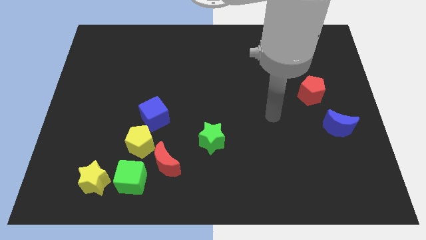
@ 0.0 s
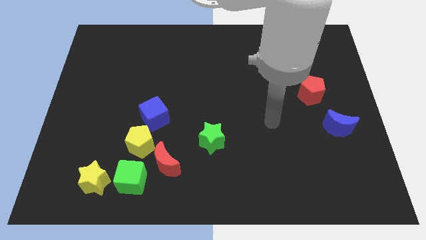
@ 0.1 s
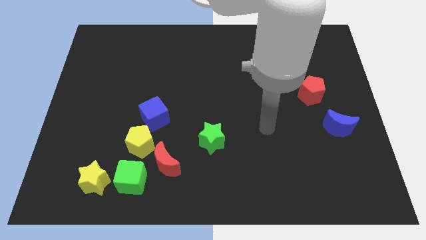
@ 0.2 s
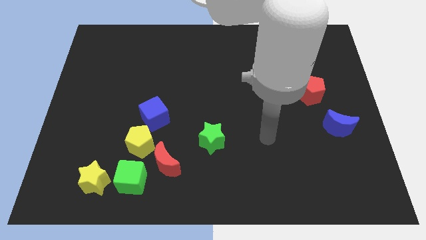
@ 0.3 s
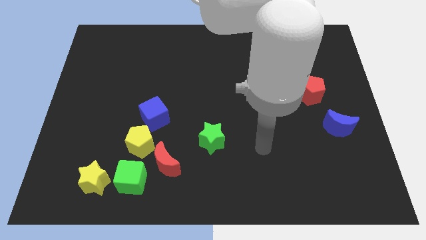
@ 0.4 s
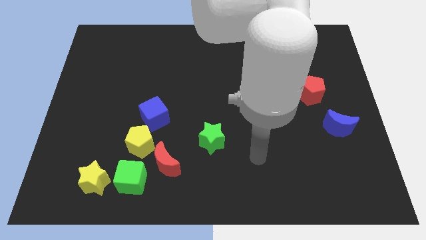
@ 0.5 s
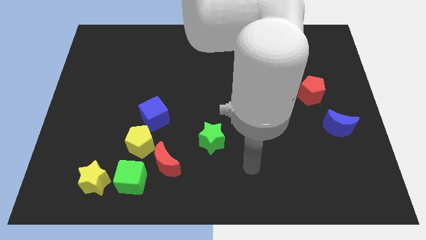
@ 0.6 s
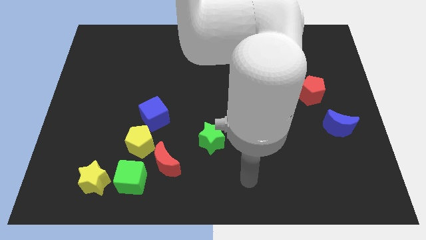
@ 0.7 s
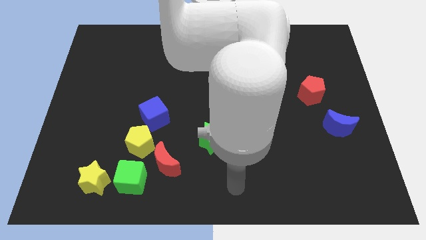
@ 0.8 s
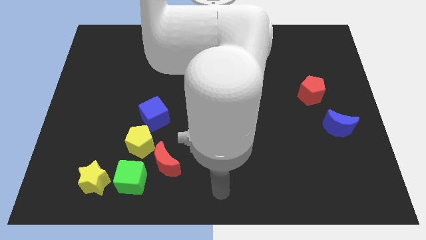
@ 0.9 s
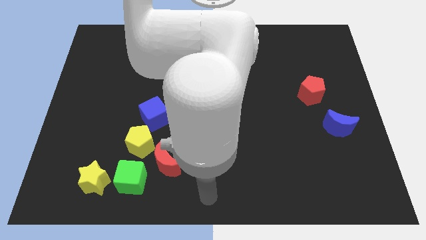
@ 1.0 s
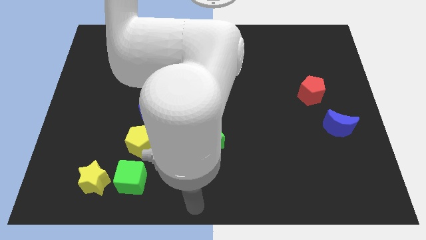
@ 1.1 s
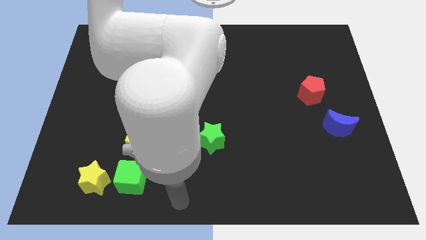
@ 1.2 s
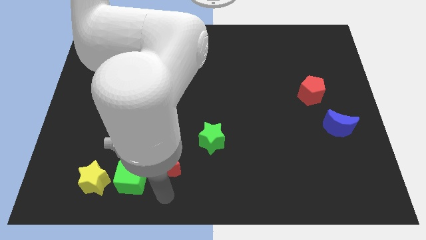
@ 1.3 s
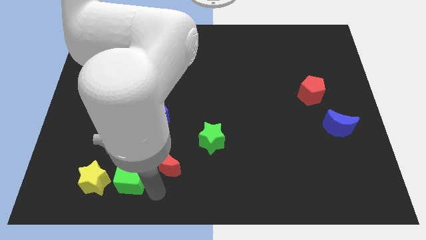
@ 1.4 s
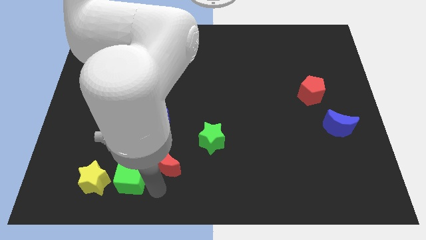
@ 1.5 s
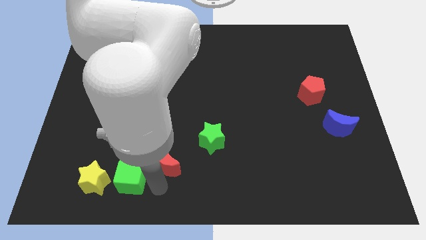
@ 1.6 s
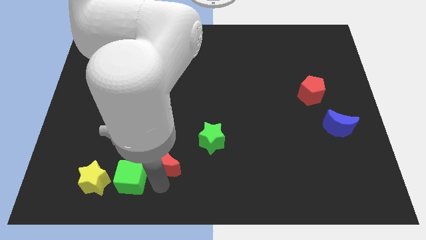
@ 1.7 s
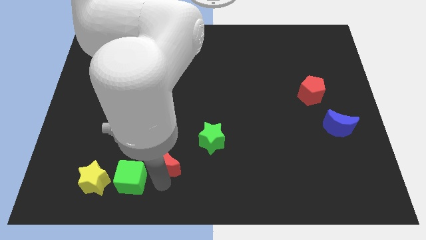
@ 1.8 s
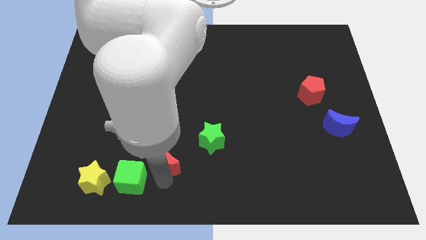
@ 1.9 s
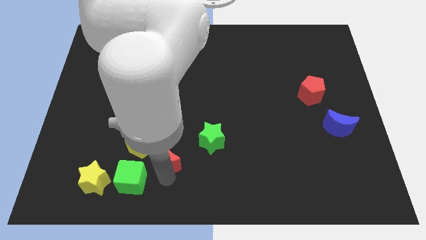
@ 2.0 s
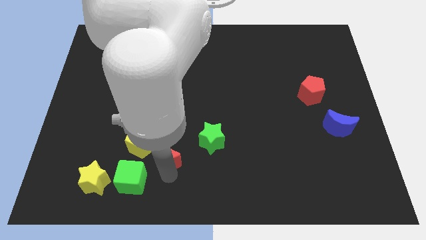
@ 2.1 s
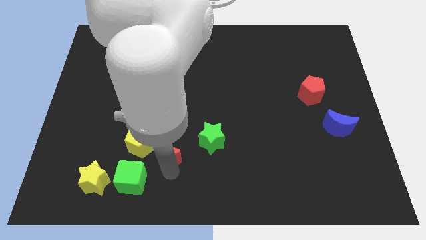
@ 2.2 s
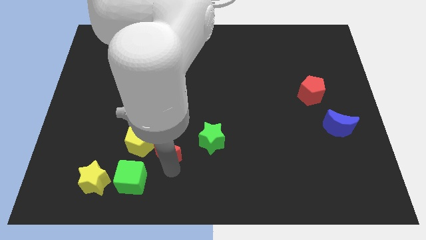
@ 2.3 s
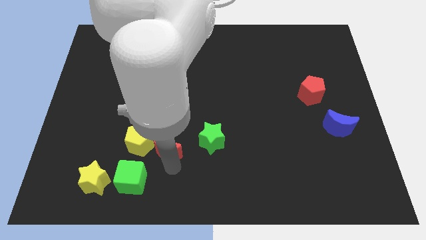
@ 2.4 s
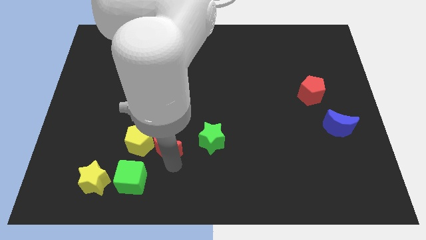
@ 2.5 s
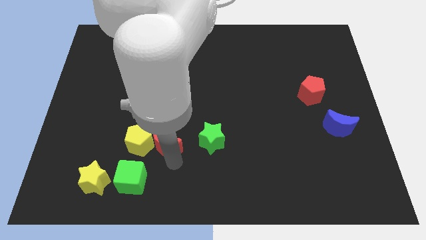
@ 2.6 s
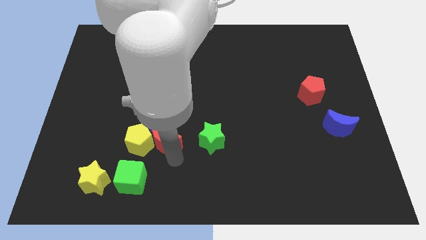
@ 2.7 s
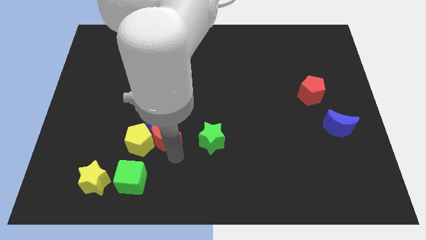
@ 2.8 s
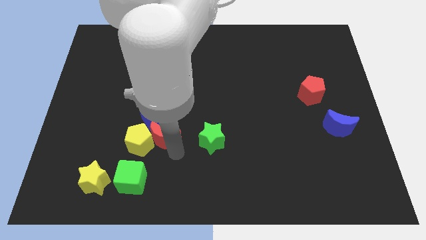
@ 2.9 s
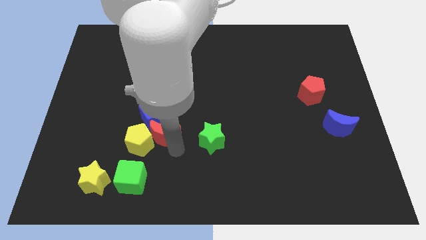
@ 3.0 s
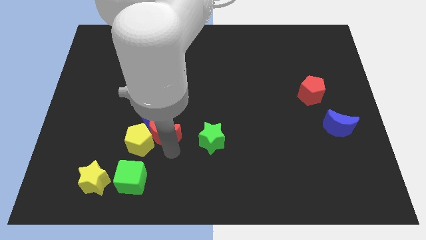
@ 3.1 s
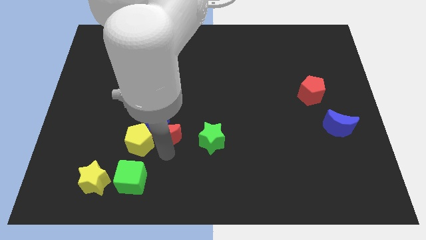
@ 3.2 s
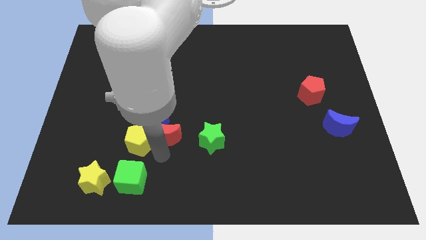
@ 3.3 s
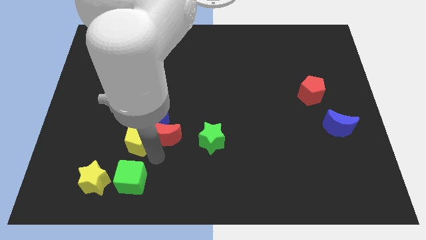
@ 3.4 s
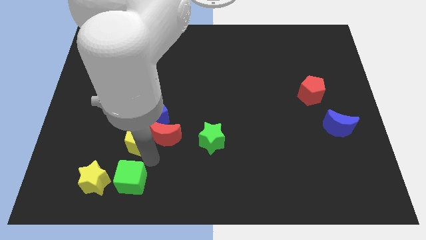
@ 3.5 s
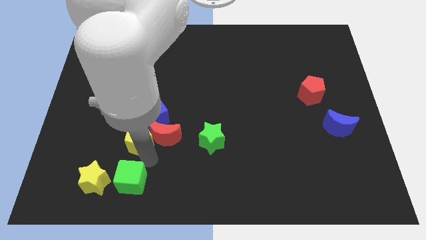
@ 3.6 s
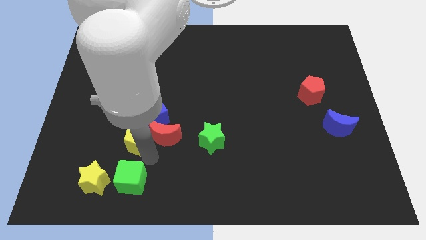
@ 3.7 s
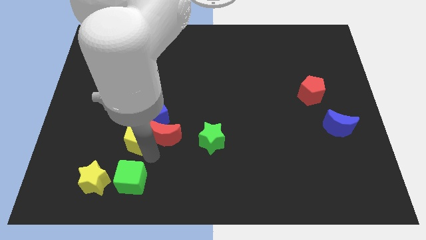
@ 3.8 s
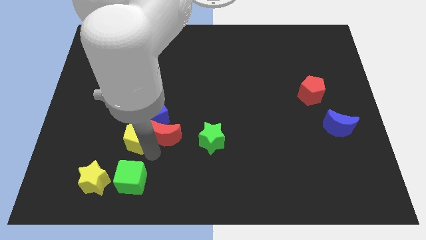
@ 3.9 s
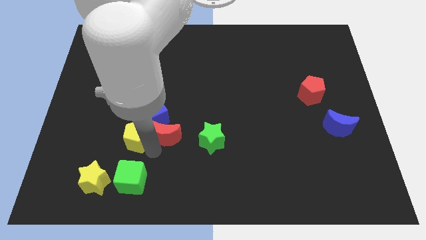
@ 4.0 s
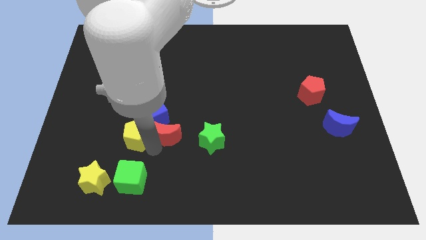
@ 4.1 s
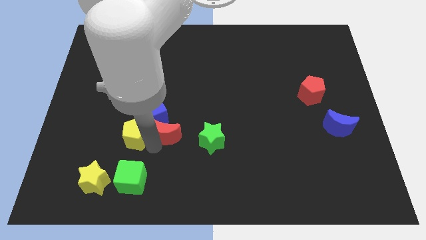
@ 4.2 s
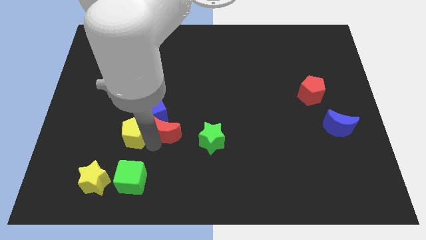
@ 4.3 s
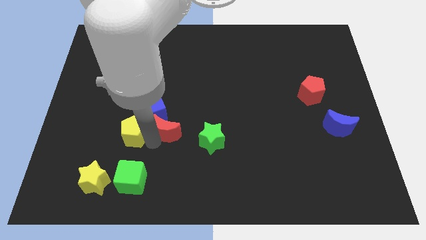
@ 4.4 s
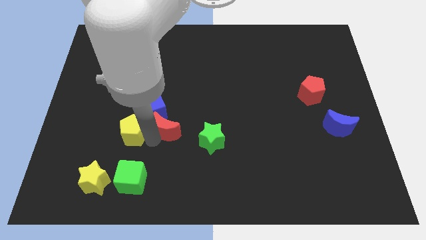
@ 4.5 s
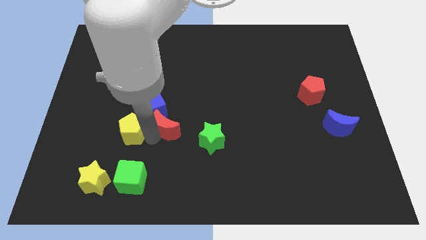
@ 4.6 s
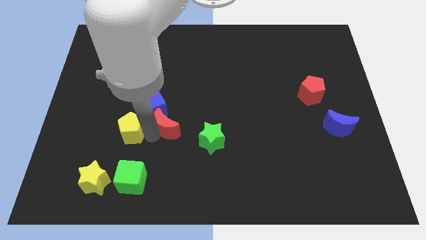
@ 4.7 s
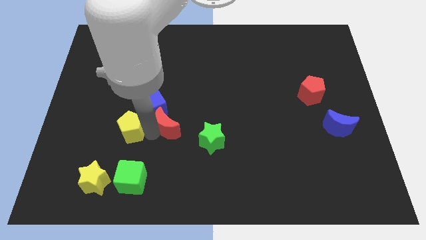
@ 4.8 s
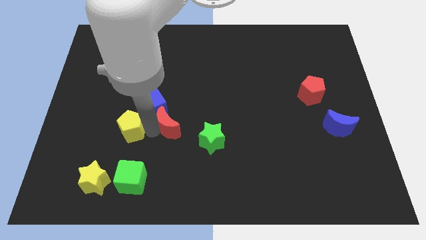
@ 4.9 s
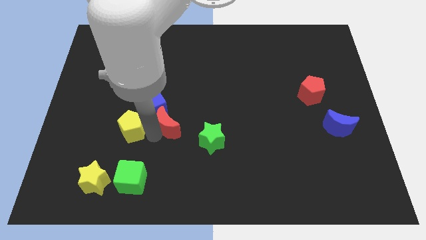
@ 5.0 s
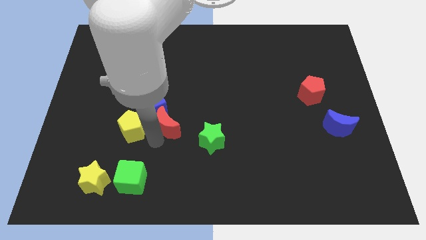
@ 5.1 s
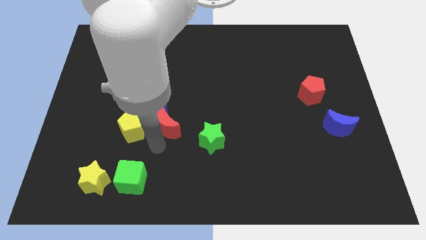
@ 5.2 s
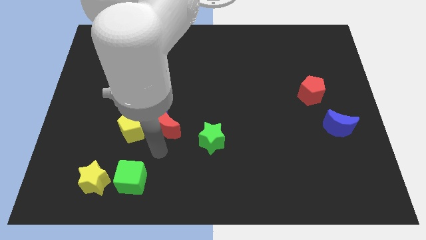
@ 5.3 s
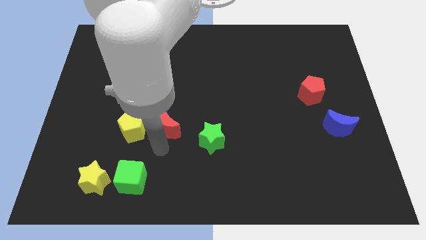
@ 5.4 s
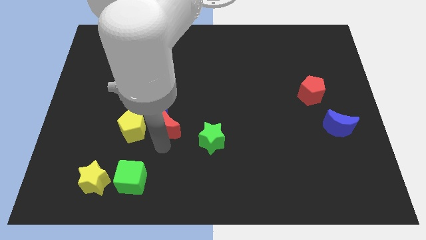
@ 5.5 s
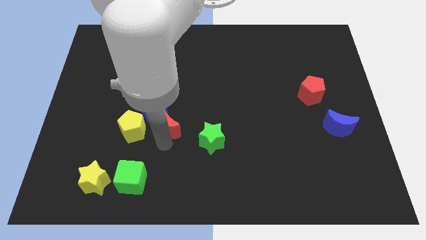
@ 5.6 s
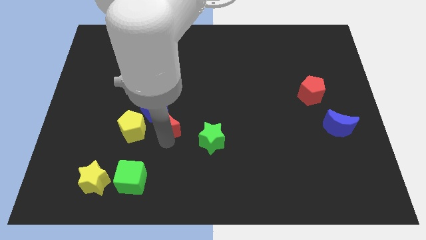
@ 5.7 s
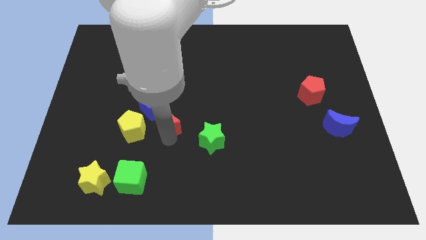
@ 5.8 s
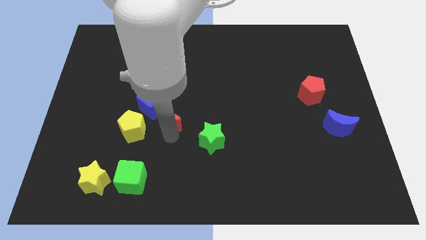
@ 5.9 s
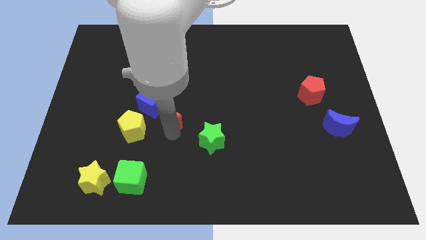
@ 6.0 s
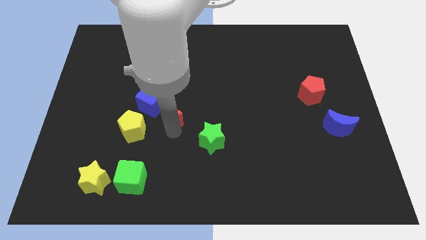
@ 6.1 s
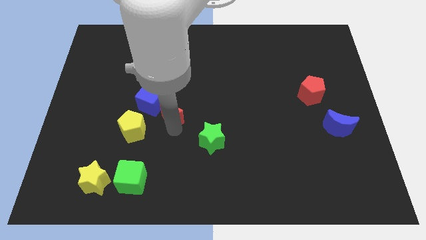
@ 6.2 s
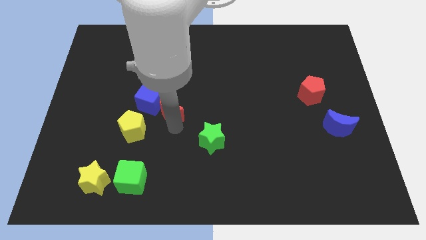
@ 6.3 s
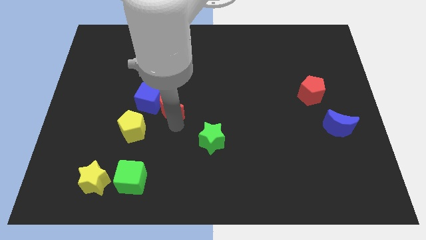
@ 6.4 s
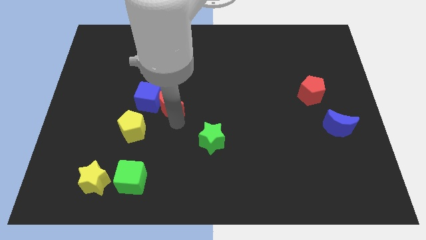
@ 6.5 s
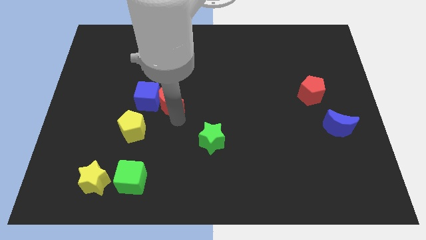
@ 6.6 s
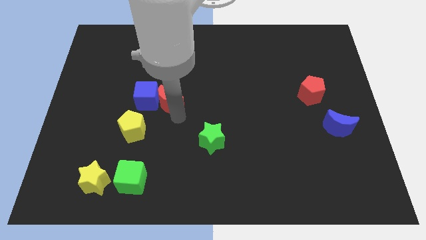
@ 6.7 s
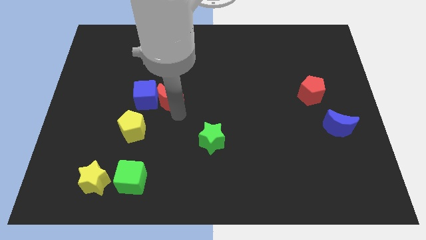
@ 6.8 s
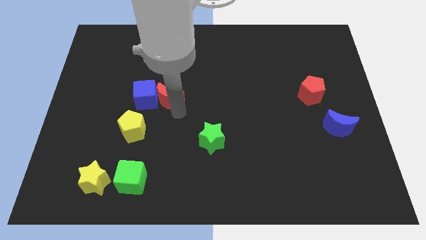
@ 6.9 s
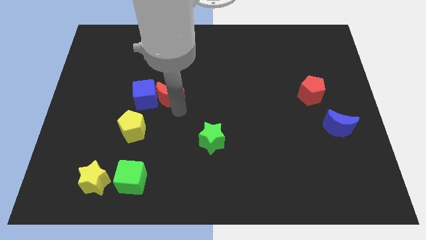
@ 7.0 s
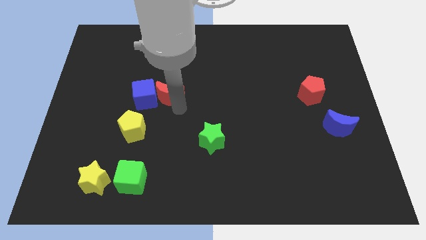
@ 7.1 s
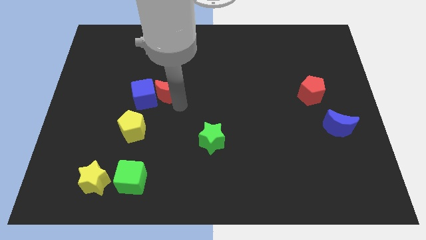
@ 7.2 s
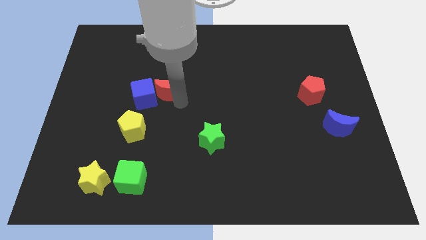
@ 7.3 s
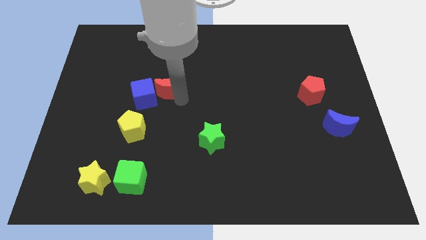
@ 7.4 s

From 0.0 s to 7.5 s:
push the red moon upwards

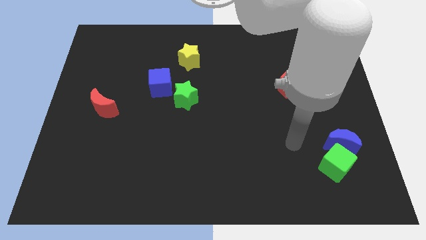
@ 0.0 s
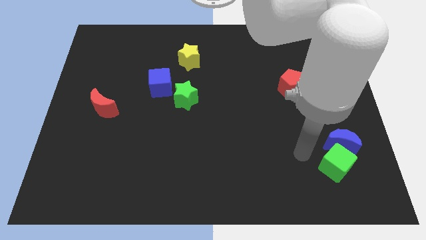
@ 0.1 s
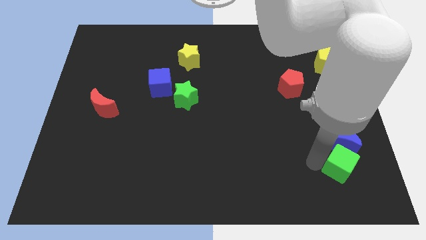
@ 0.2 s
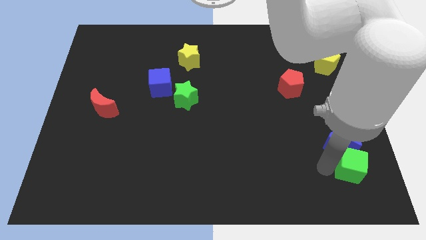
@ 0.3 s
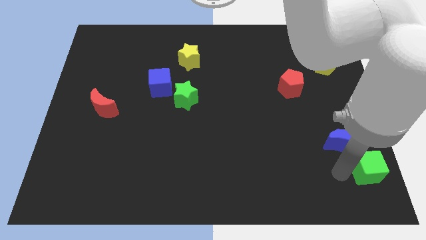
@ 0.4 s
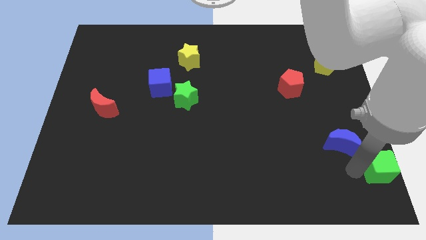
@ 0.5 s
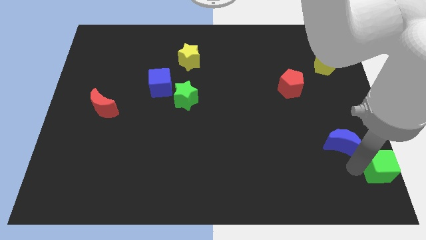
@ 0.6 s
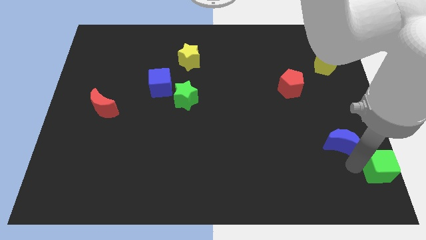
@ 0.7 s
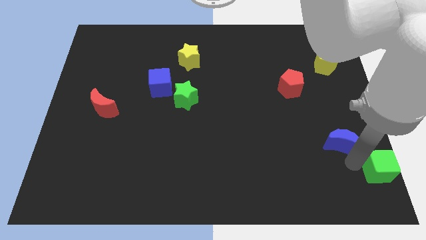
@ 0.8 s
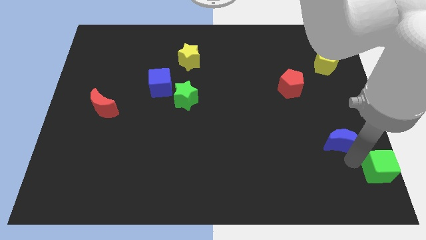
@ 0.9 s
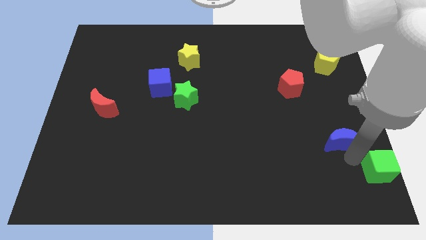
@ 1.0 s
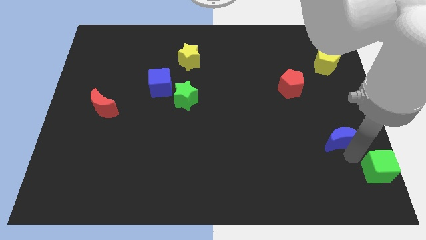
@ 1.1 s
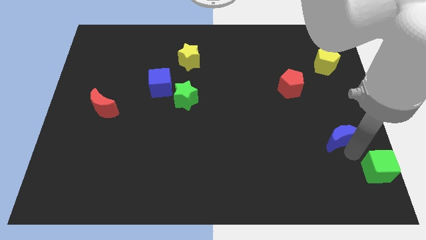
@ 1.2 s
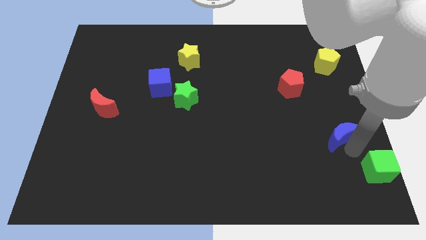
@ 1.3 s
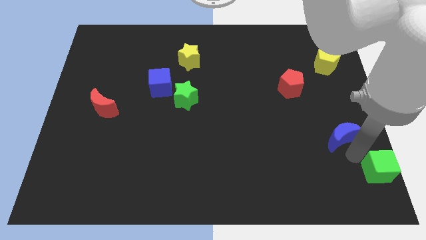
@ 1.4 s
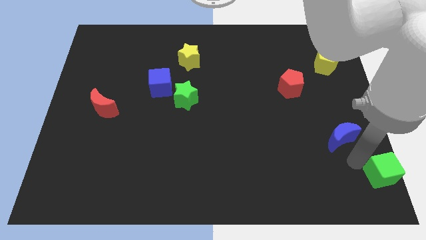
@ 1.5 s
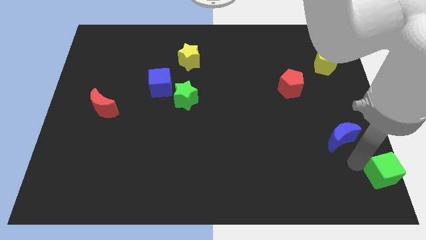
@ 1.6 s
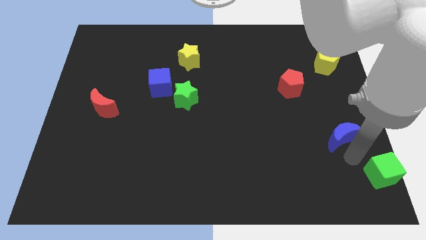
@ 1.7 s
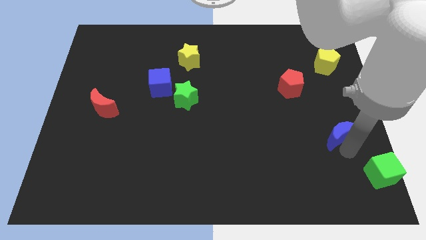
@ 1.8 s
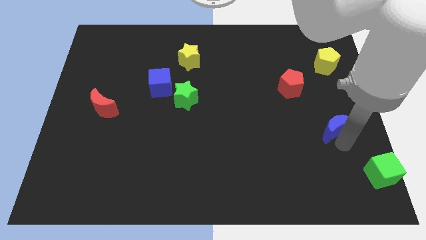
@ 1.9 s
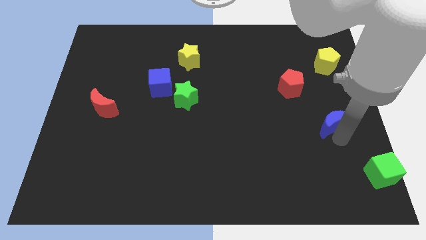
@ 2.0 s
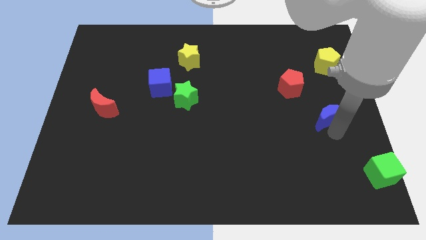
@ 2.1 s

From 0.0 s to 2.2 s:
move the blue moon a little upwards
